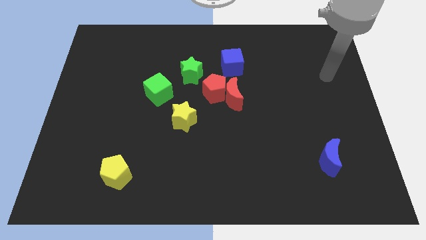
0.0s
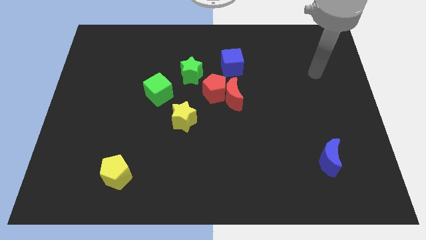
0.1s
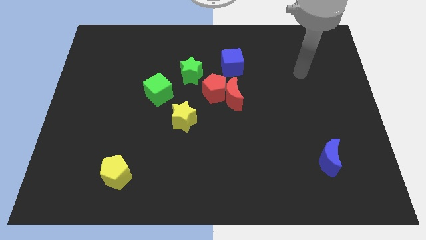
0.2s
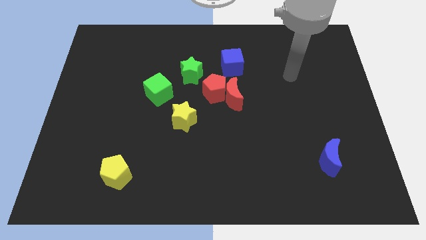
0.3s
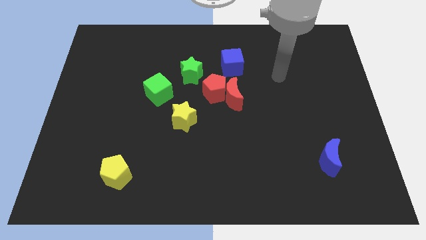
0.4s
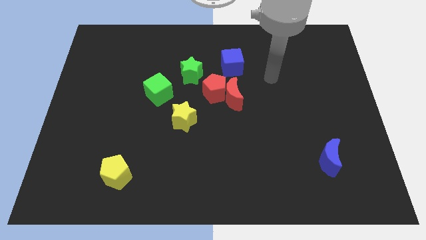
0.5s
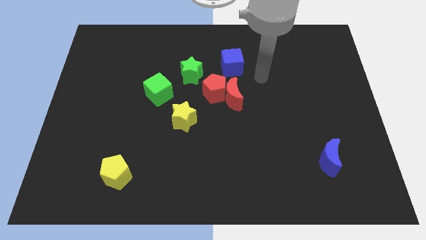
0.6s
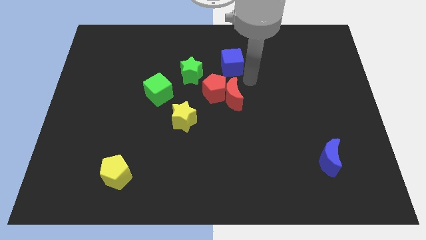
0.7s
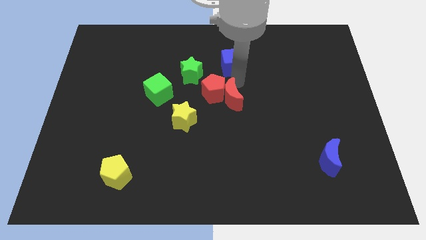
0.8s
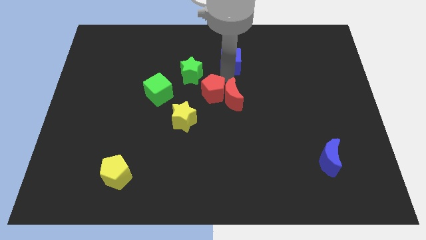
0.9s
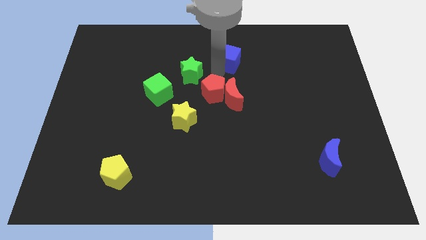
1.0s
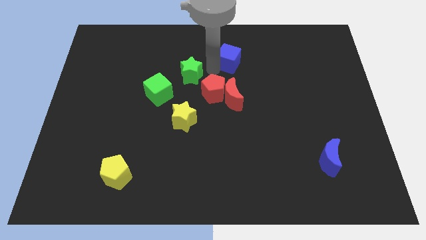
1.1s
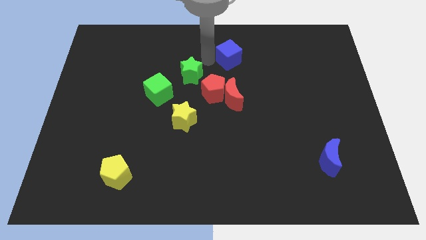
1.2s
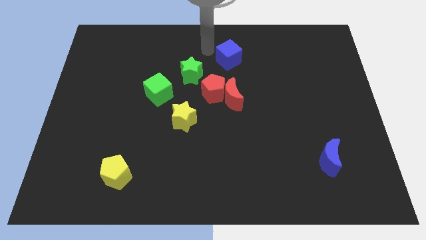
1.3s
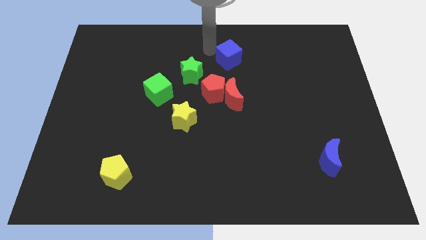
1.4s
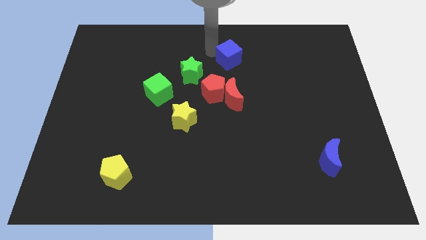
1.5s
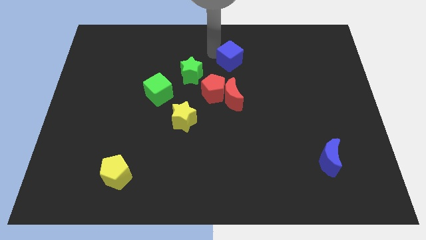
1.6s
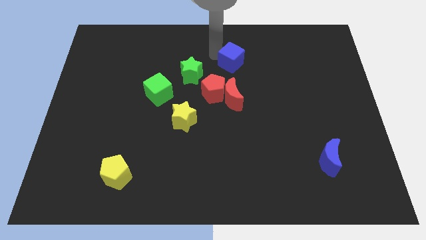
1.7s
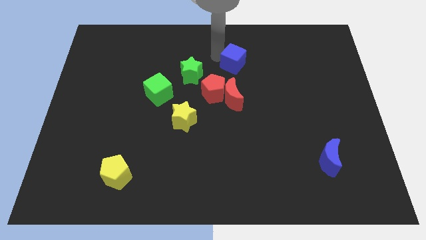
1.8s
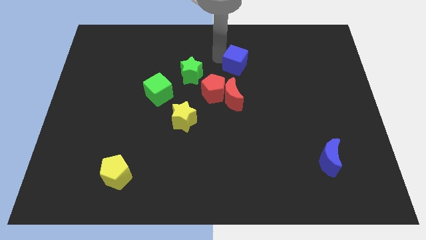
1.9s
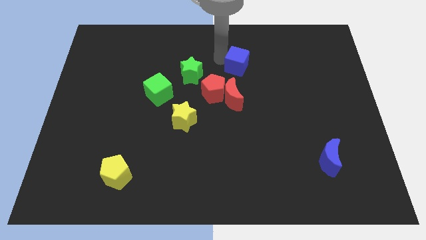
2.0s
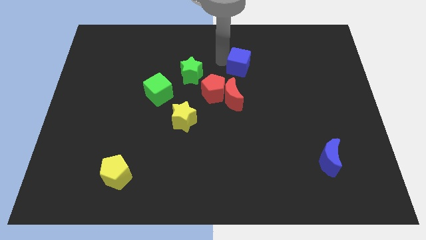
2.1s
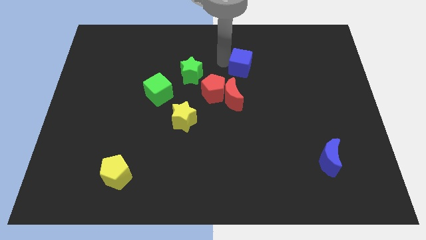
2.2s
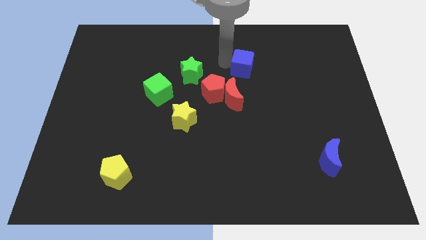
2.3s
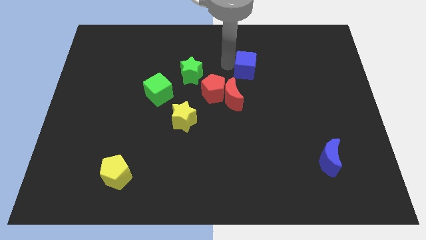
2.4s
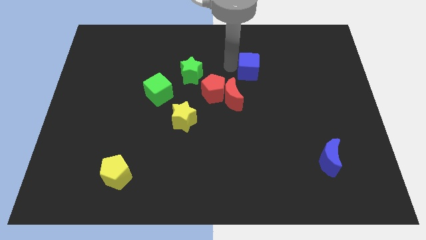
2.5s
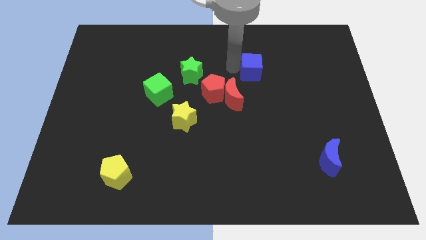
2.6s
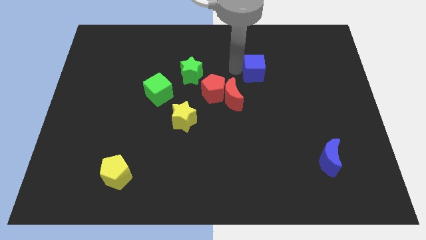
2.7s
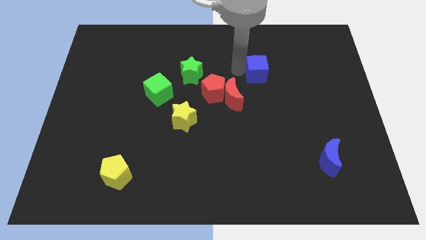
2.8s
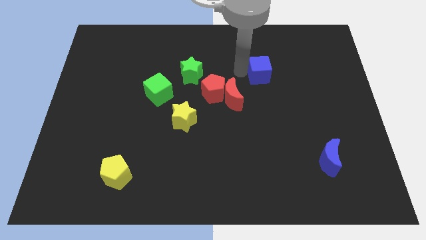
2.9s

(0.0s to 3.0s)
move the blue cube a little right

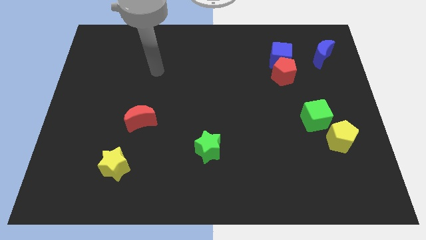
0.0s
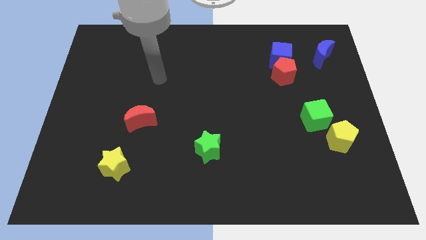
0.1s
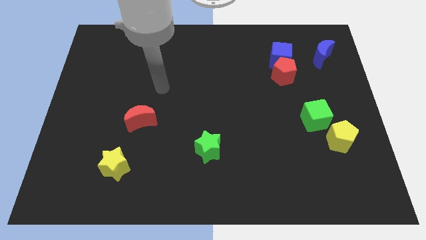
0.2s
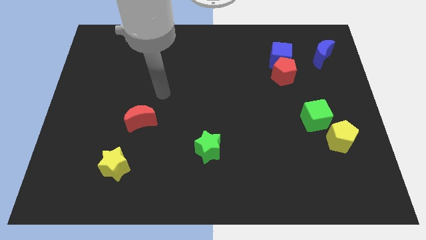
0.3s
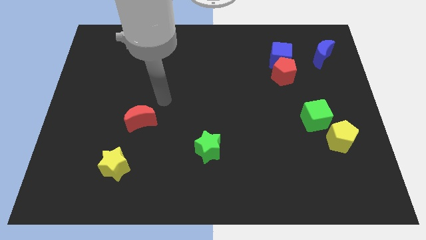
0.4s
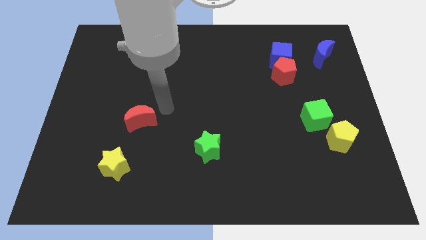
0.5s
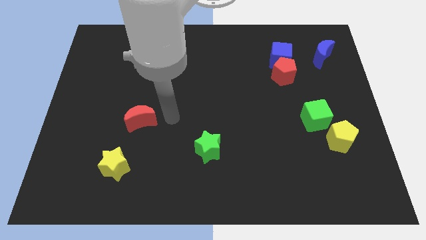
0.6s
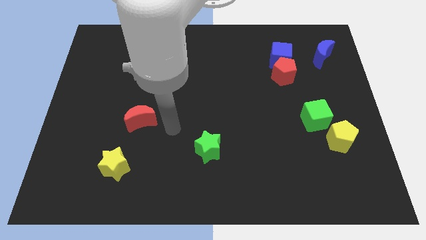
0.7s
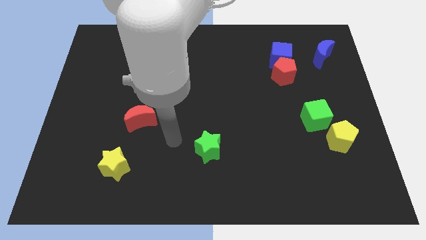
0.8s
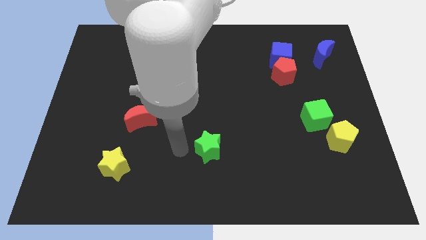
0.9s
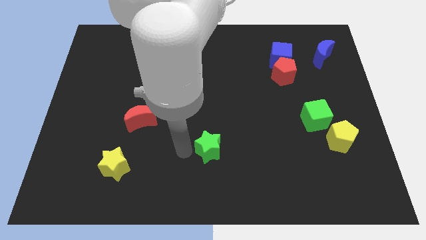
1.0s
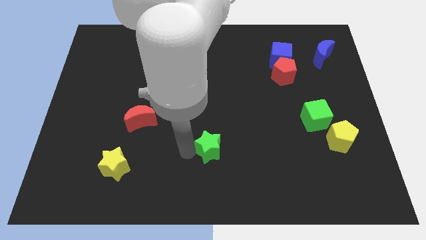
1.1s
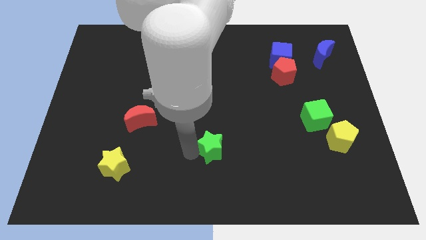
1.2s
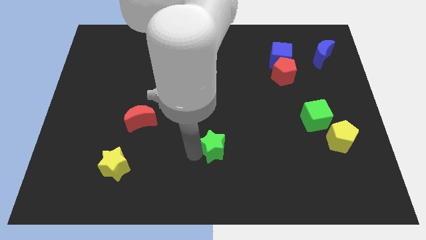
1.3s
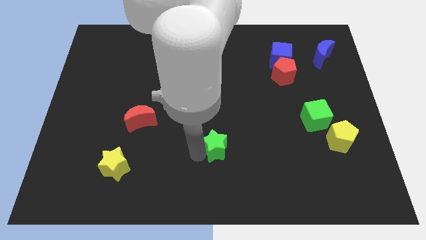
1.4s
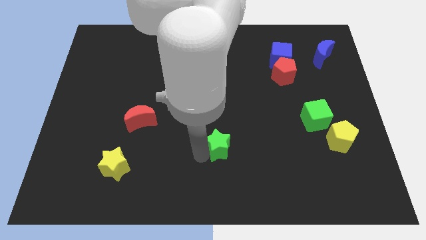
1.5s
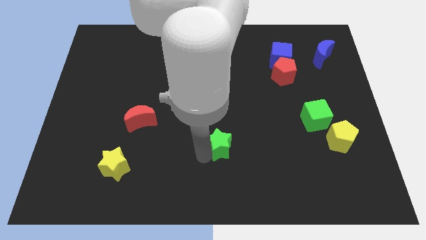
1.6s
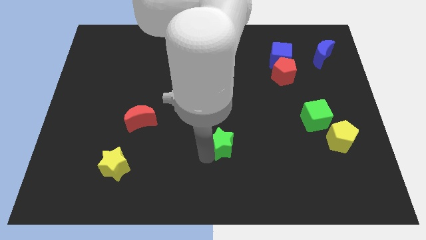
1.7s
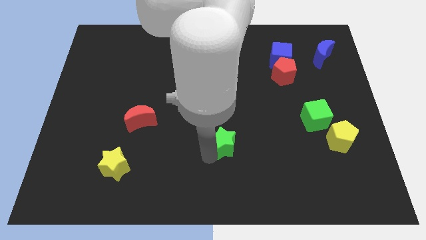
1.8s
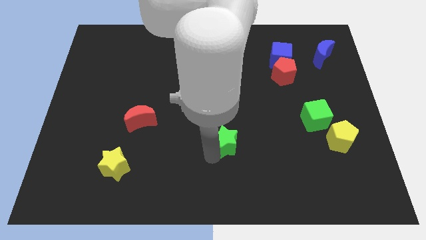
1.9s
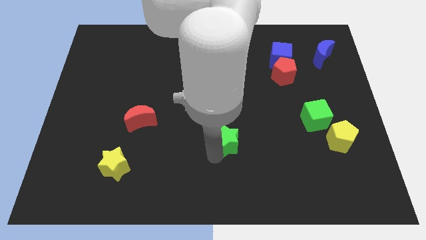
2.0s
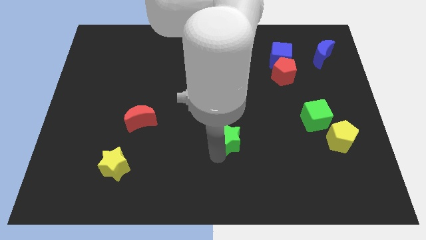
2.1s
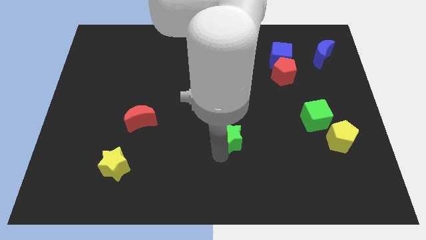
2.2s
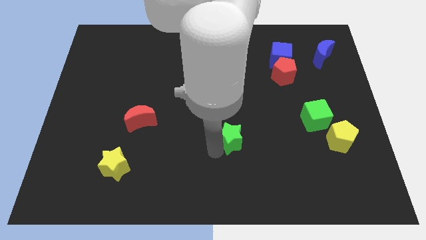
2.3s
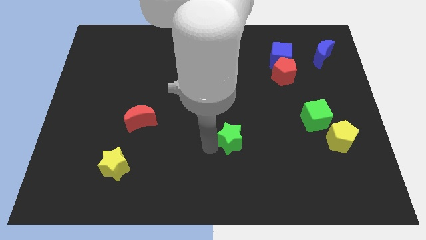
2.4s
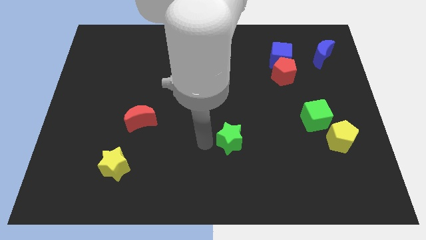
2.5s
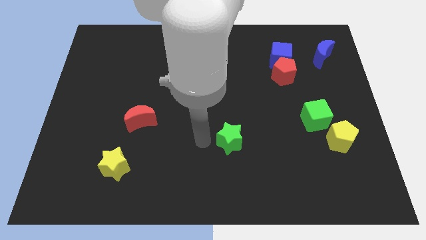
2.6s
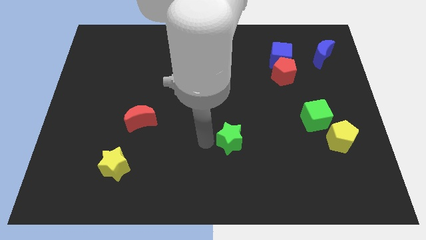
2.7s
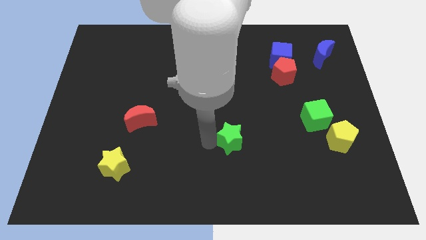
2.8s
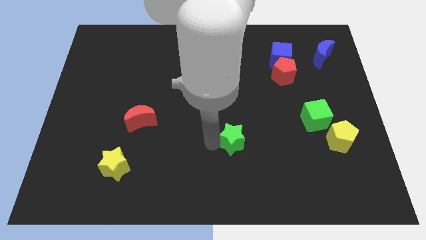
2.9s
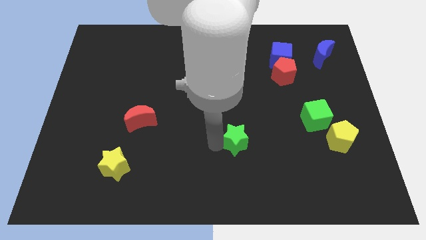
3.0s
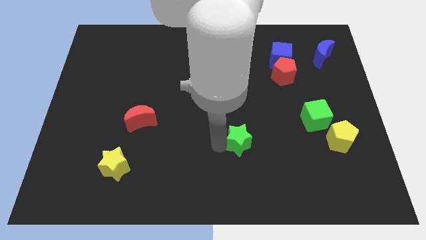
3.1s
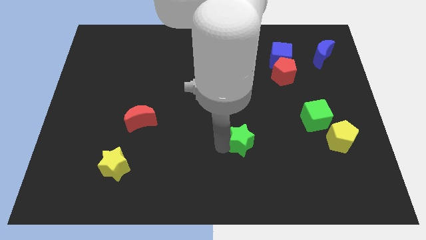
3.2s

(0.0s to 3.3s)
slightly push the green star to the right

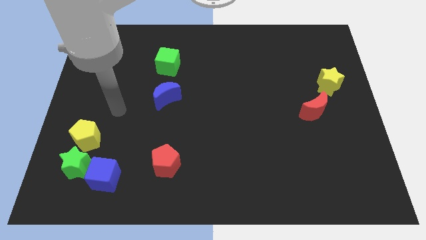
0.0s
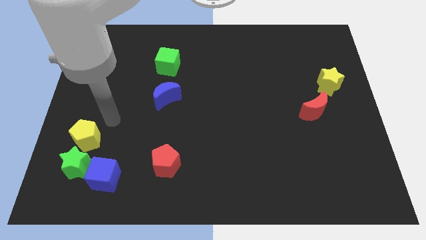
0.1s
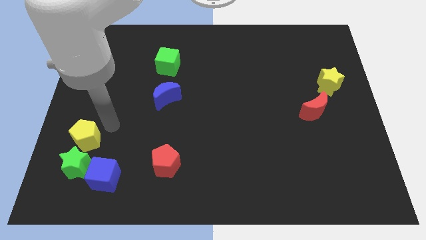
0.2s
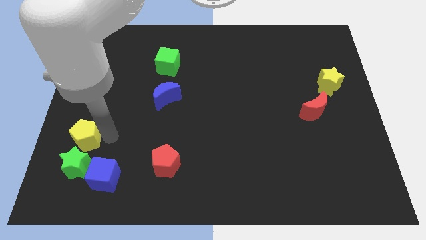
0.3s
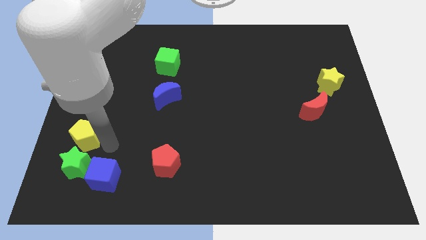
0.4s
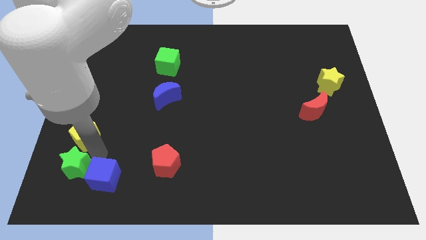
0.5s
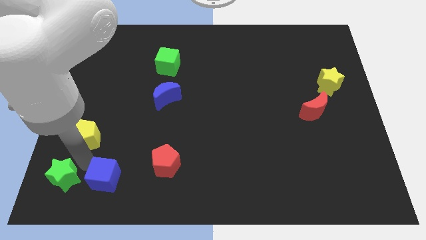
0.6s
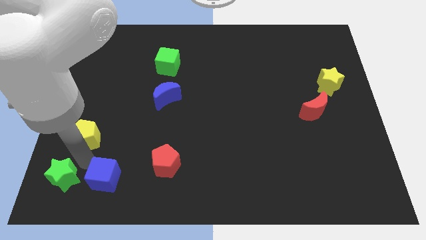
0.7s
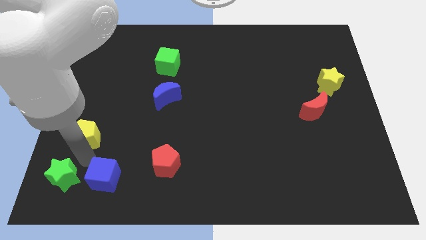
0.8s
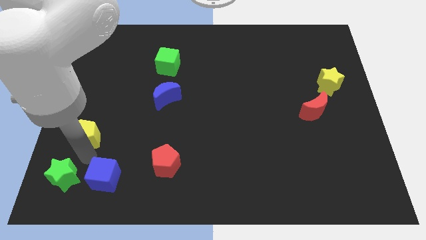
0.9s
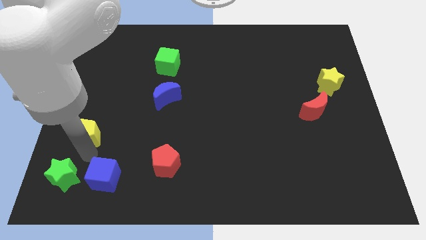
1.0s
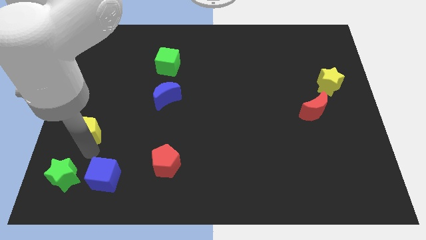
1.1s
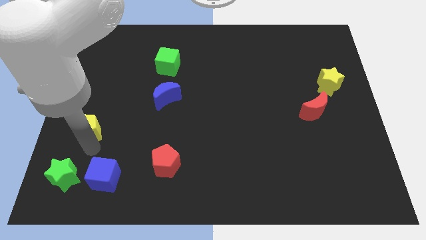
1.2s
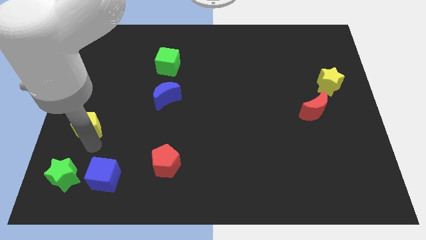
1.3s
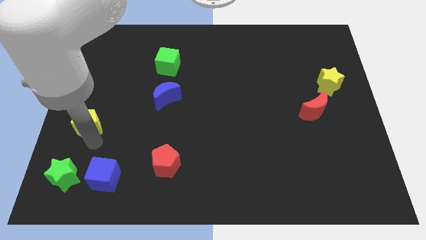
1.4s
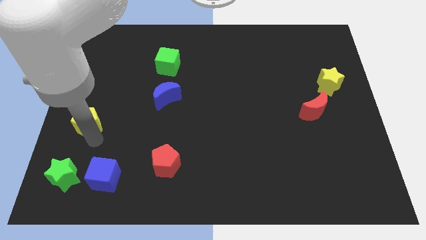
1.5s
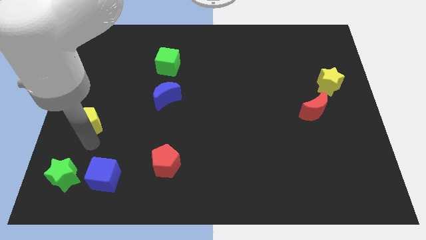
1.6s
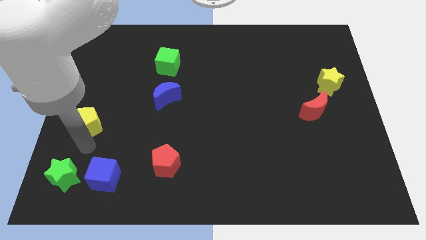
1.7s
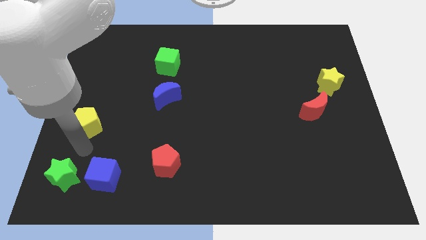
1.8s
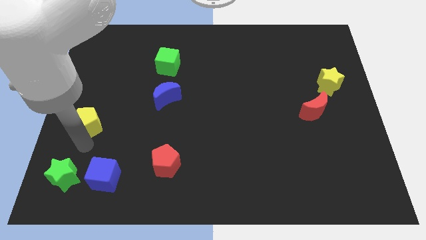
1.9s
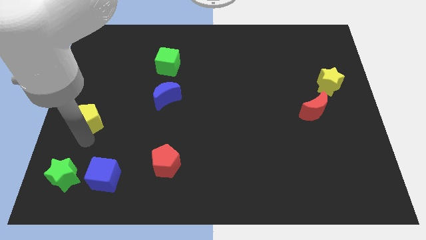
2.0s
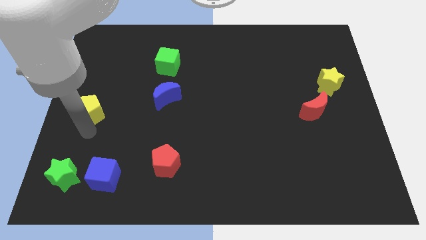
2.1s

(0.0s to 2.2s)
slightly push the yellow pentagon upwards
